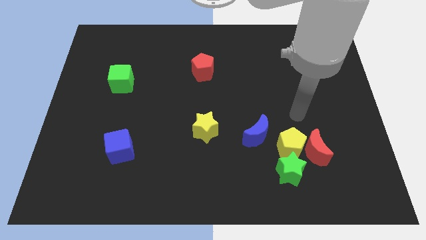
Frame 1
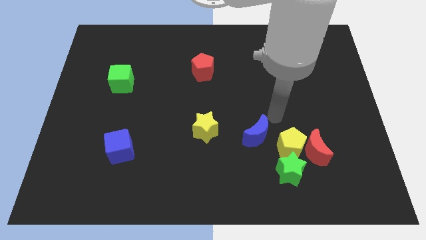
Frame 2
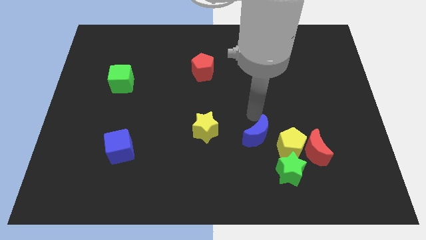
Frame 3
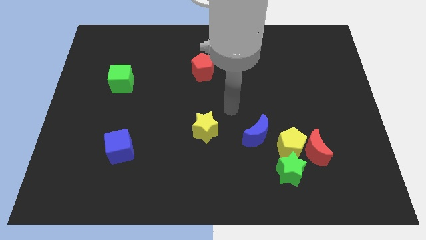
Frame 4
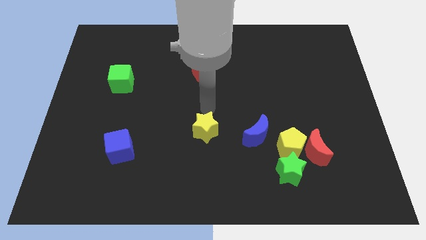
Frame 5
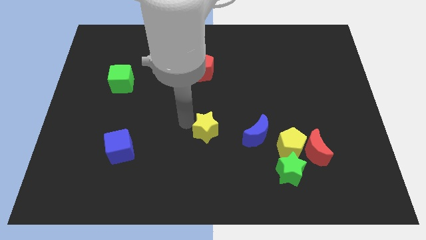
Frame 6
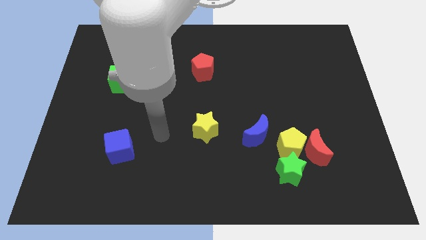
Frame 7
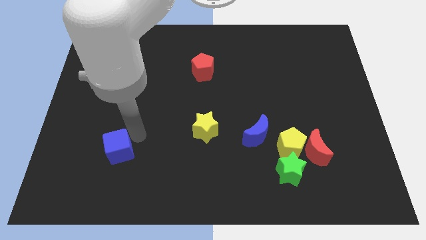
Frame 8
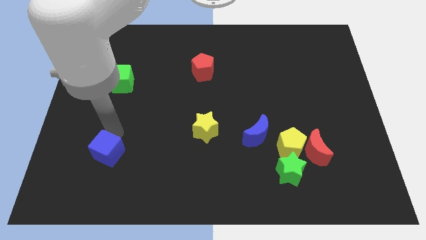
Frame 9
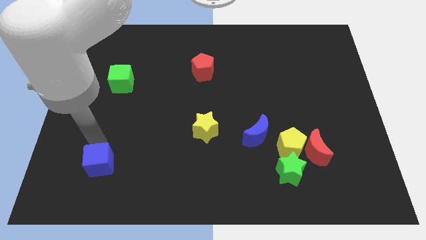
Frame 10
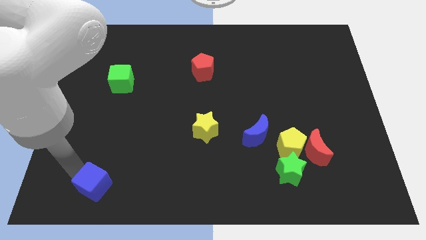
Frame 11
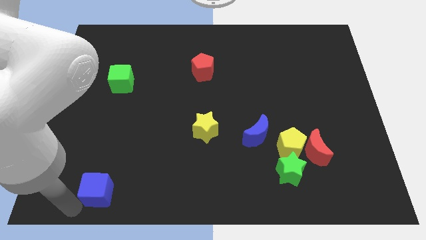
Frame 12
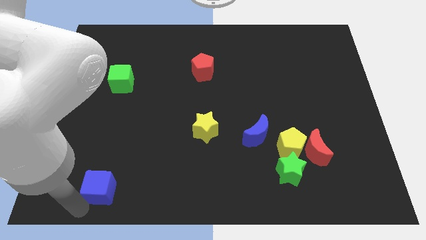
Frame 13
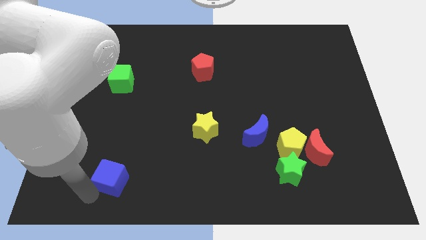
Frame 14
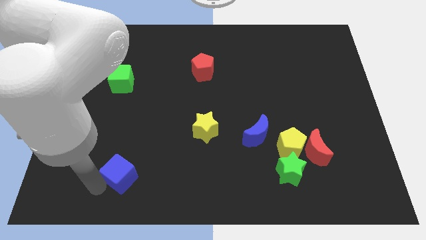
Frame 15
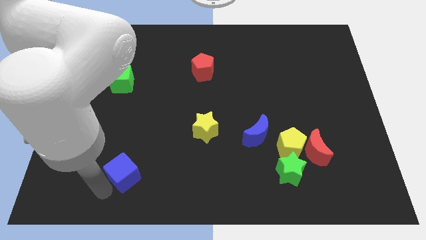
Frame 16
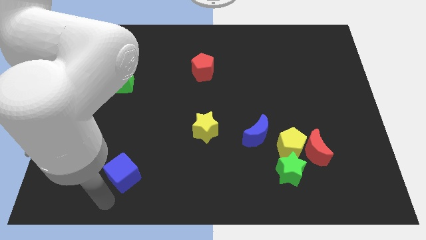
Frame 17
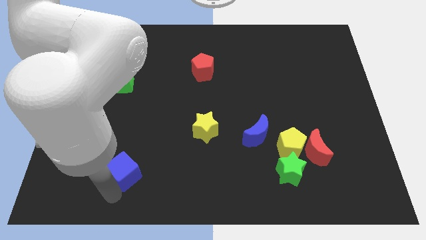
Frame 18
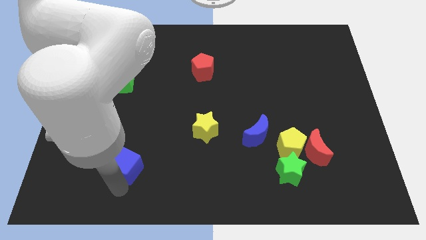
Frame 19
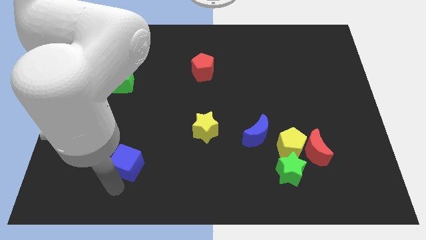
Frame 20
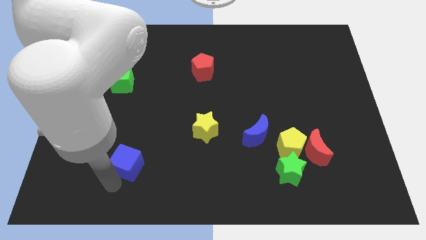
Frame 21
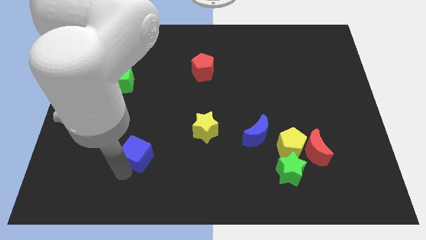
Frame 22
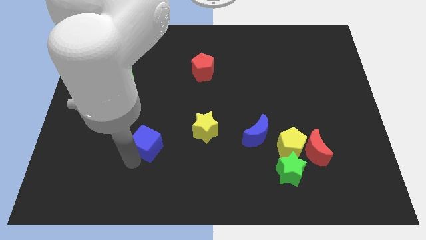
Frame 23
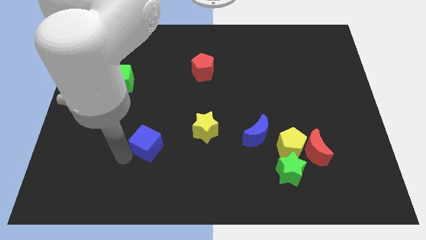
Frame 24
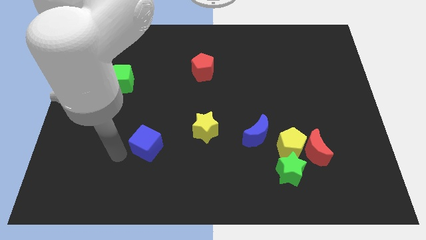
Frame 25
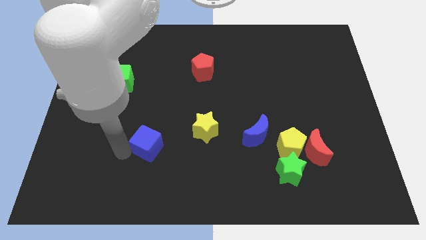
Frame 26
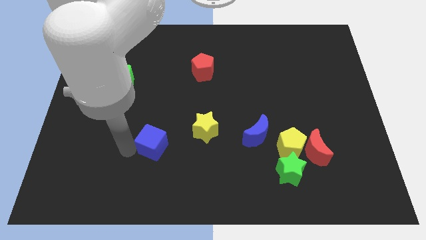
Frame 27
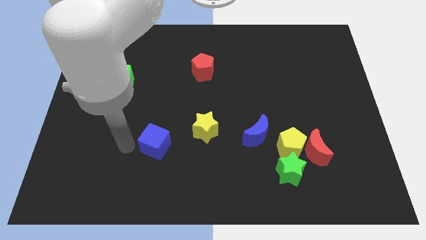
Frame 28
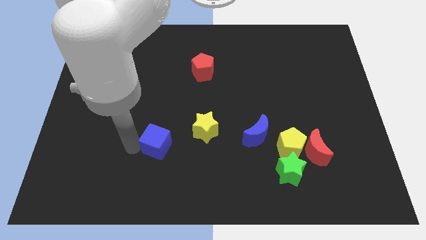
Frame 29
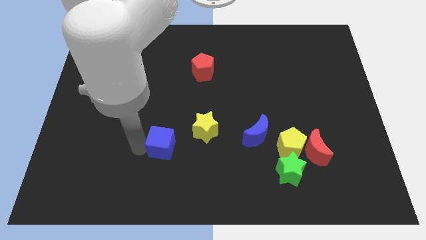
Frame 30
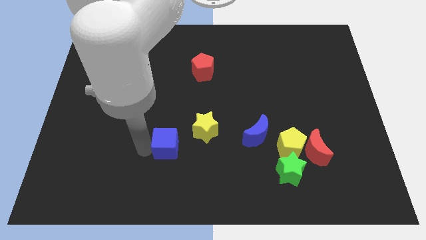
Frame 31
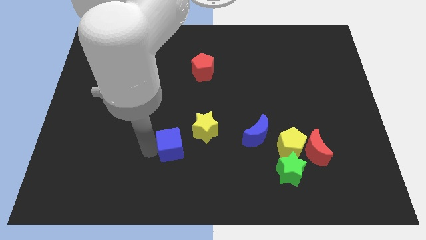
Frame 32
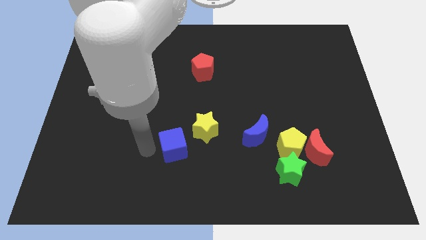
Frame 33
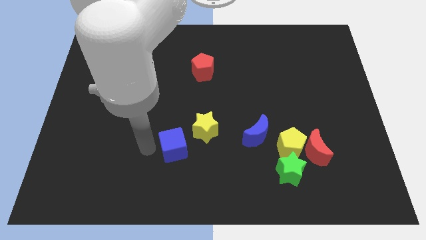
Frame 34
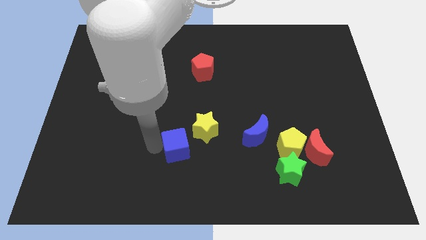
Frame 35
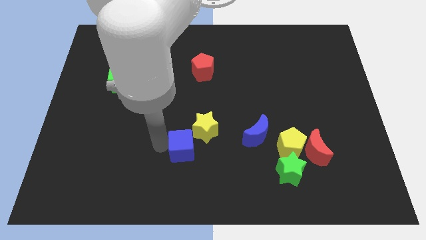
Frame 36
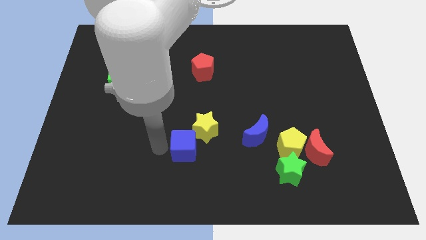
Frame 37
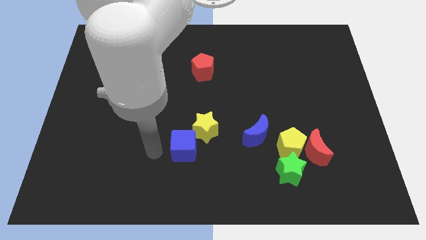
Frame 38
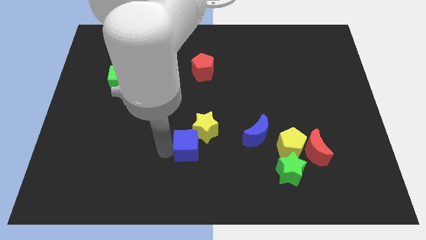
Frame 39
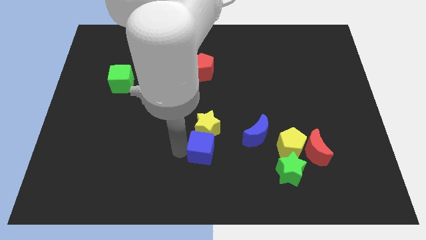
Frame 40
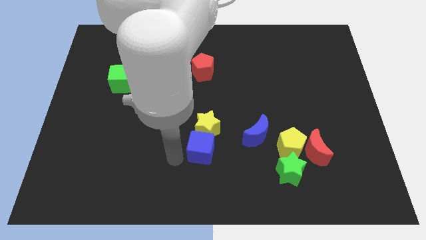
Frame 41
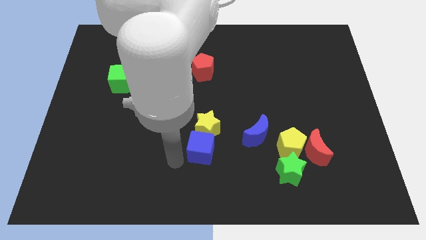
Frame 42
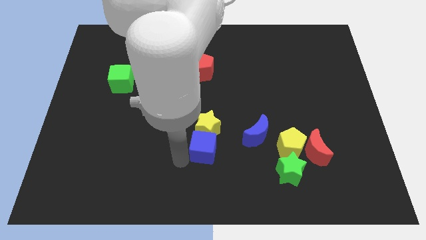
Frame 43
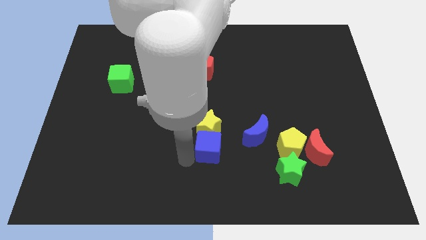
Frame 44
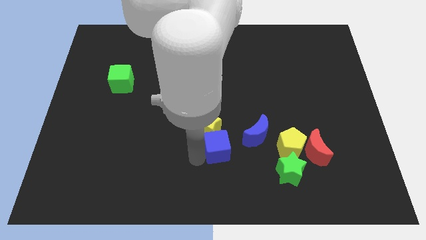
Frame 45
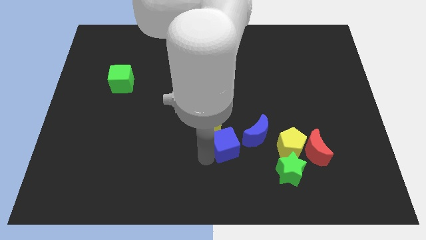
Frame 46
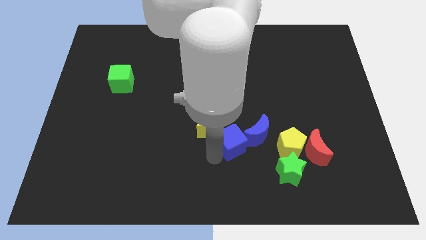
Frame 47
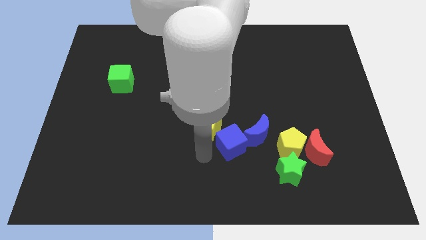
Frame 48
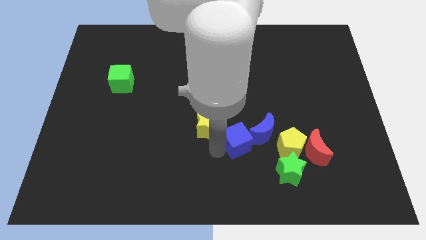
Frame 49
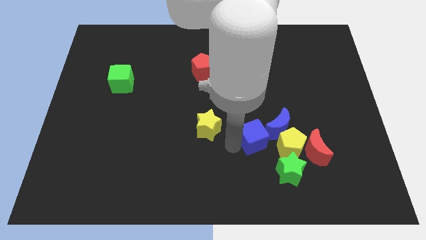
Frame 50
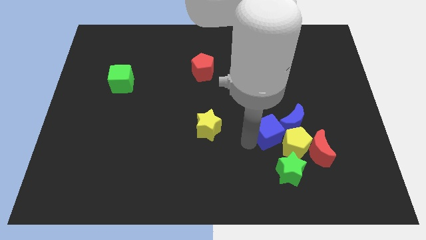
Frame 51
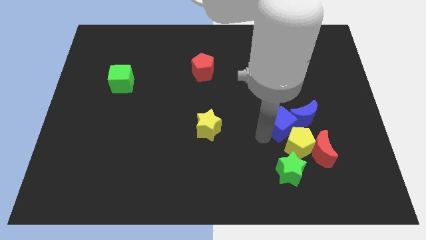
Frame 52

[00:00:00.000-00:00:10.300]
move the blue cube to the blue moon

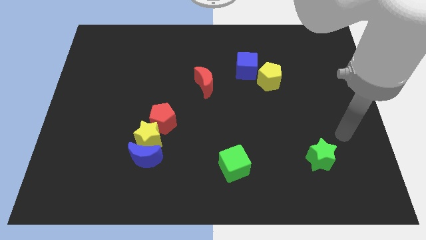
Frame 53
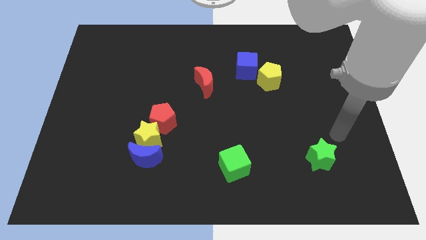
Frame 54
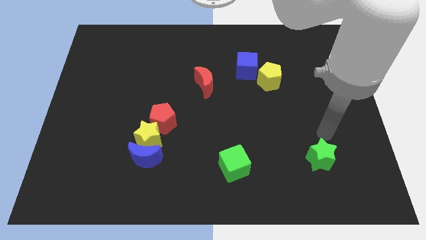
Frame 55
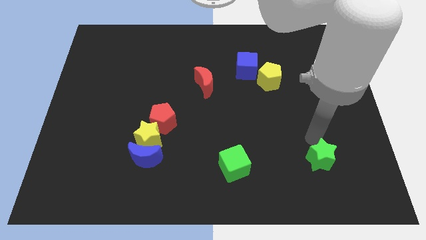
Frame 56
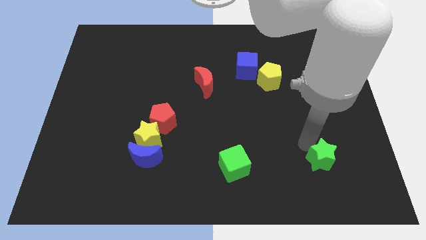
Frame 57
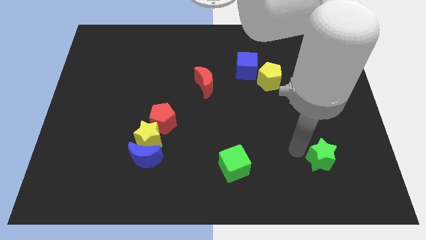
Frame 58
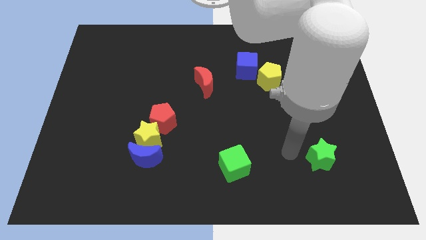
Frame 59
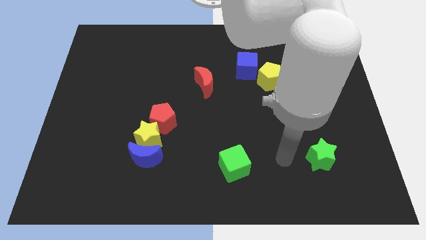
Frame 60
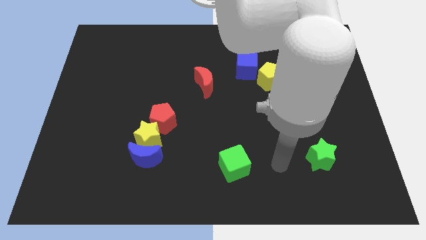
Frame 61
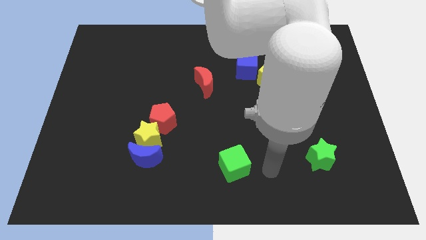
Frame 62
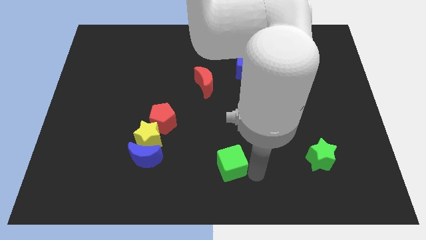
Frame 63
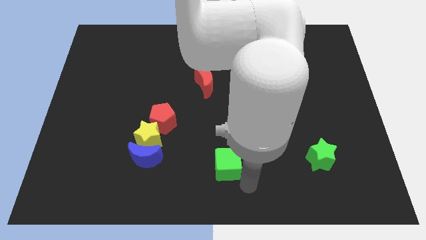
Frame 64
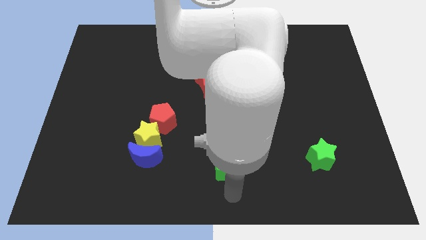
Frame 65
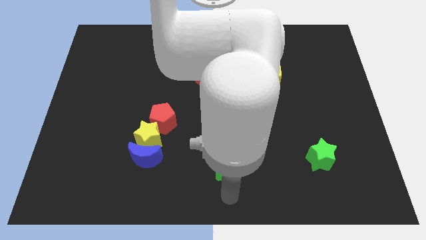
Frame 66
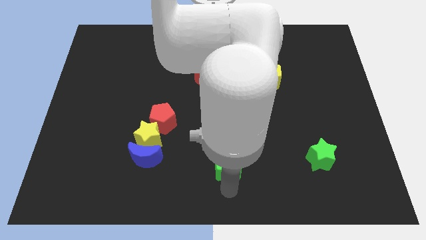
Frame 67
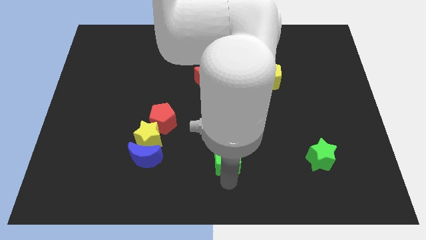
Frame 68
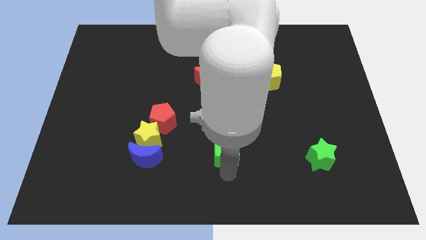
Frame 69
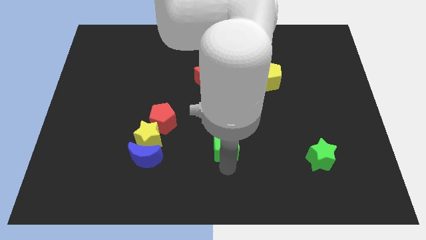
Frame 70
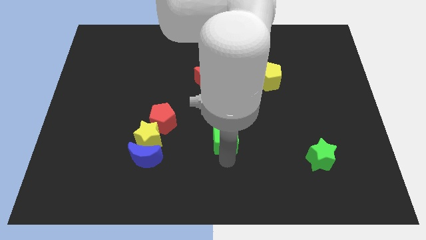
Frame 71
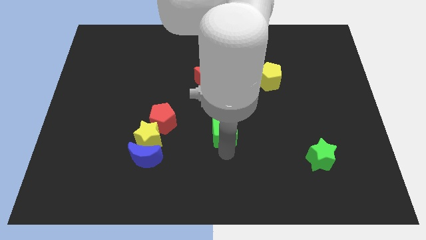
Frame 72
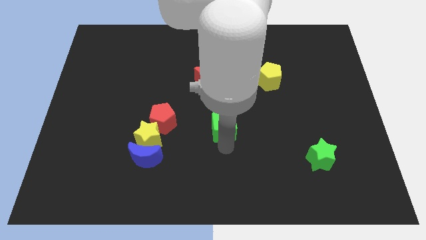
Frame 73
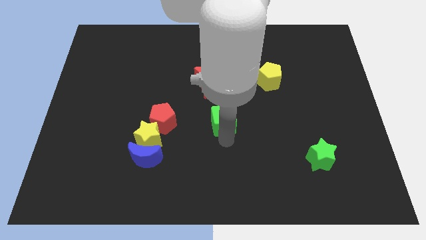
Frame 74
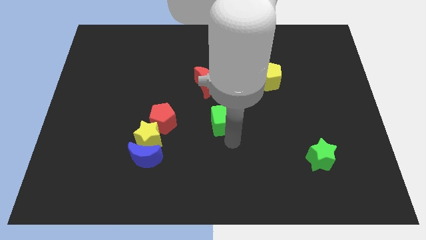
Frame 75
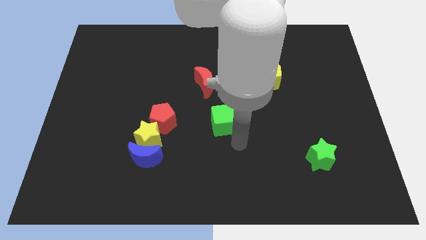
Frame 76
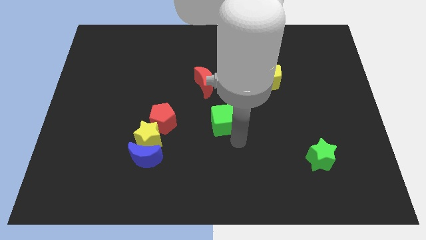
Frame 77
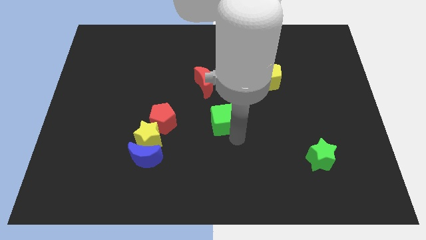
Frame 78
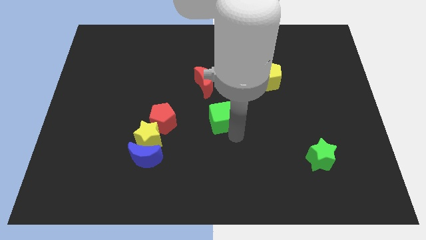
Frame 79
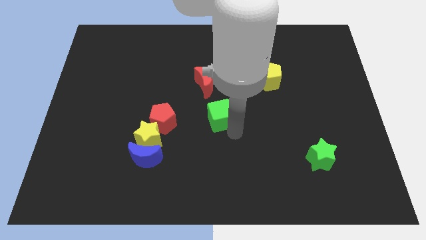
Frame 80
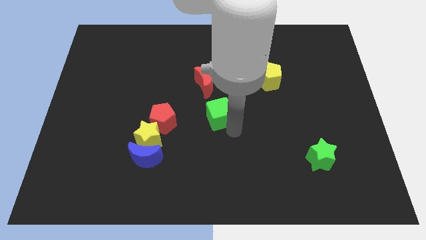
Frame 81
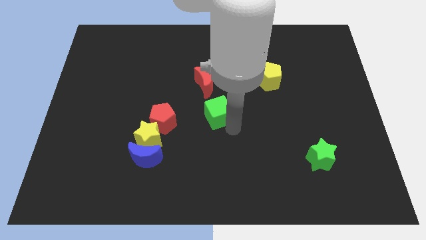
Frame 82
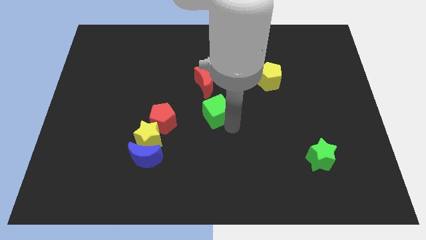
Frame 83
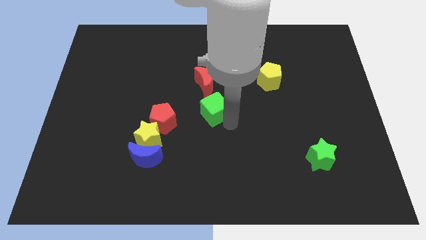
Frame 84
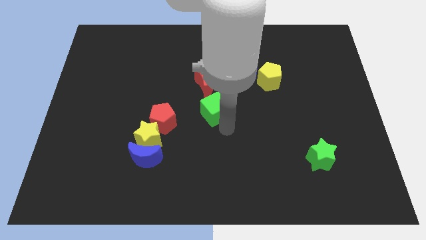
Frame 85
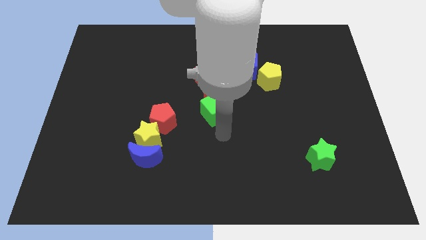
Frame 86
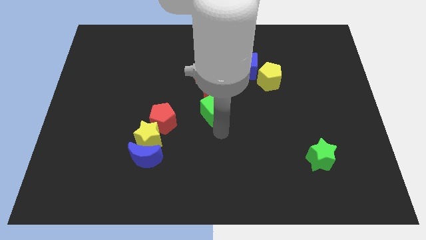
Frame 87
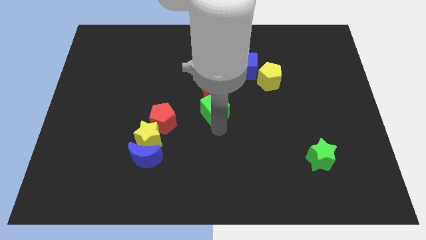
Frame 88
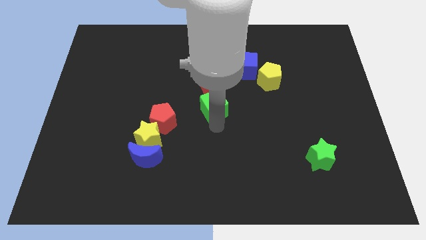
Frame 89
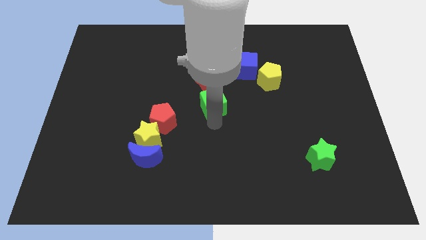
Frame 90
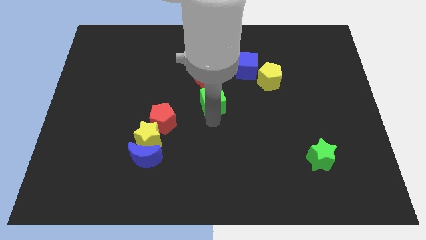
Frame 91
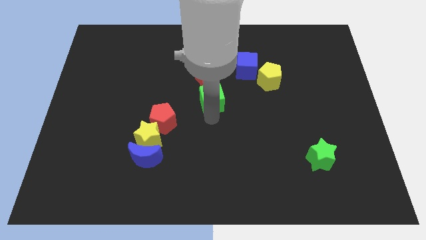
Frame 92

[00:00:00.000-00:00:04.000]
slide the green cube next to the red moon
